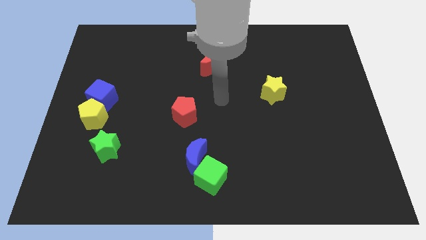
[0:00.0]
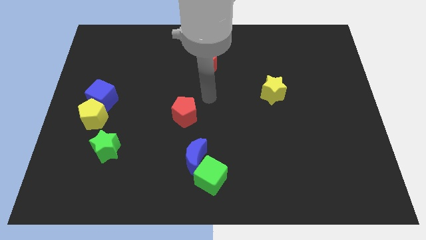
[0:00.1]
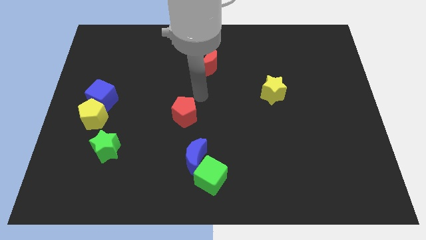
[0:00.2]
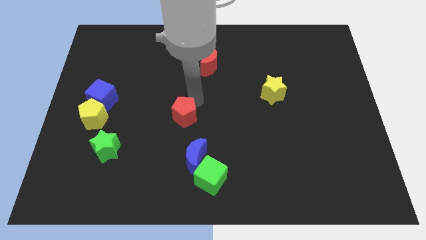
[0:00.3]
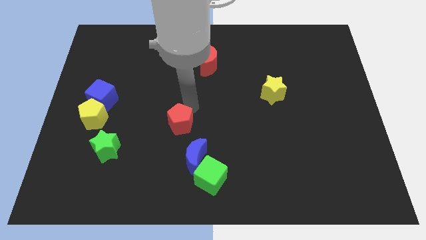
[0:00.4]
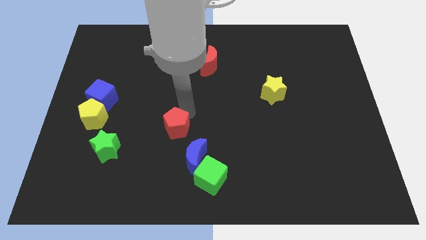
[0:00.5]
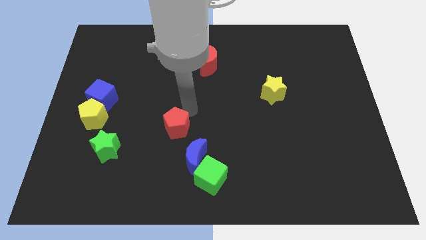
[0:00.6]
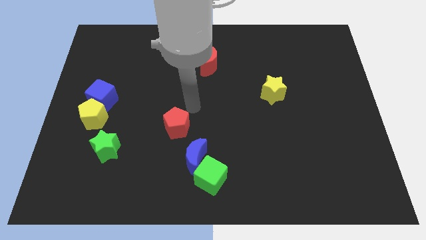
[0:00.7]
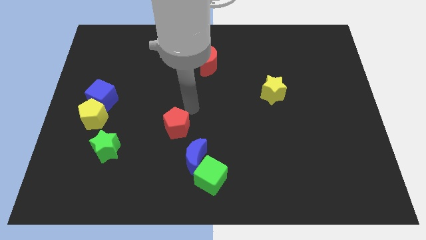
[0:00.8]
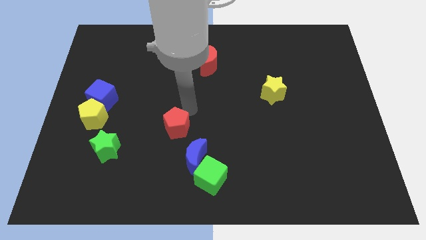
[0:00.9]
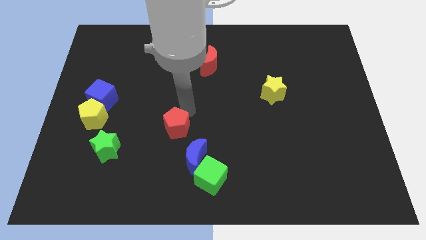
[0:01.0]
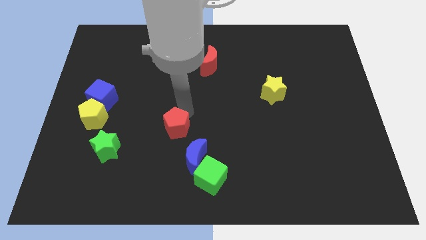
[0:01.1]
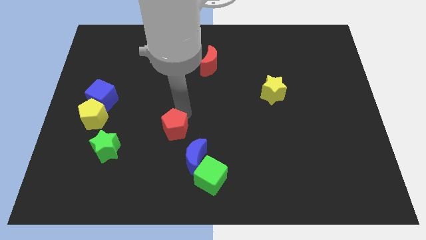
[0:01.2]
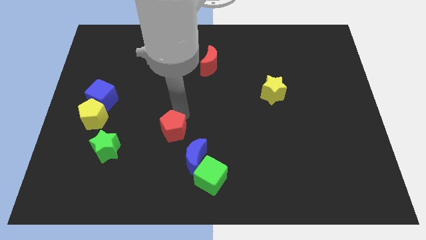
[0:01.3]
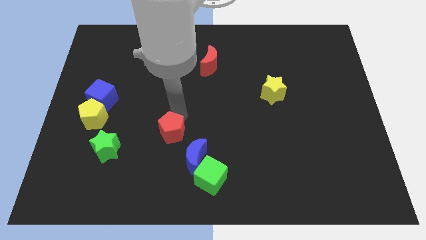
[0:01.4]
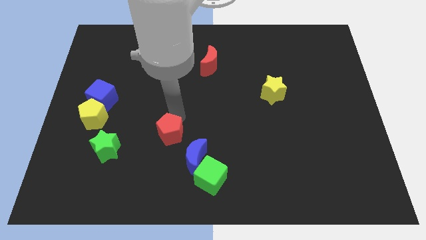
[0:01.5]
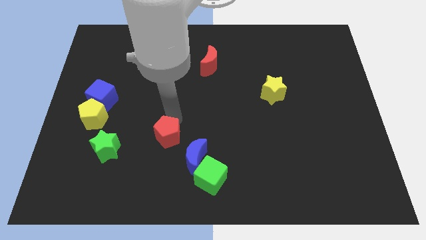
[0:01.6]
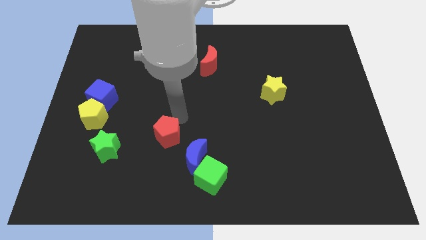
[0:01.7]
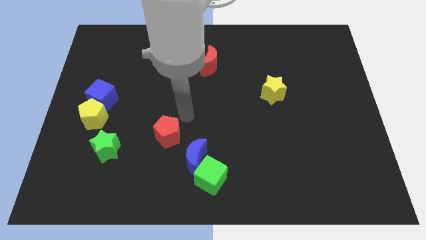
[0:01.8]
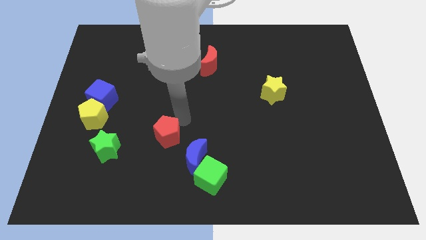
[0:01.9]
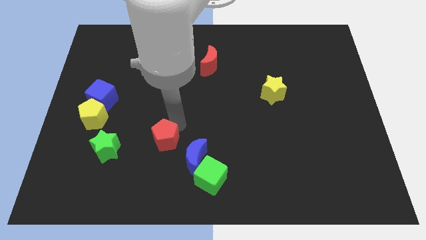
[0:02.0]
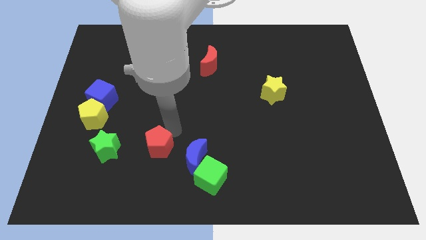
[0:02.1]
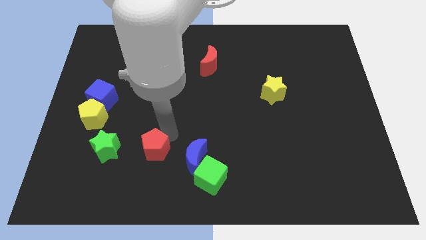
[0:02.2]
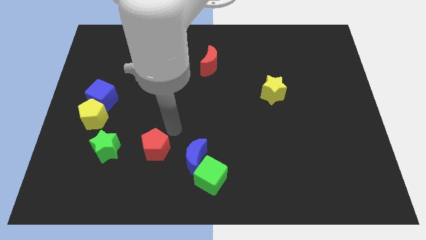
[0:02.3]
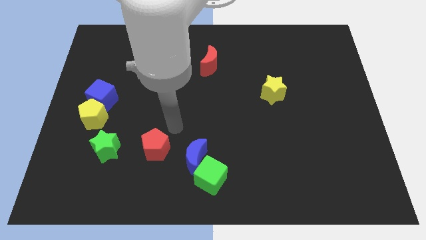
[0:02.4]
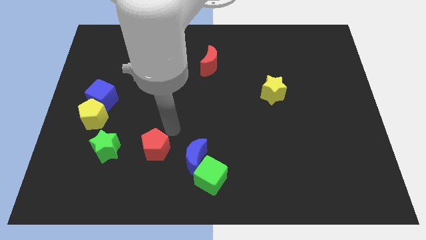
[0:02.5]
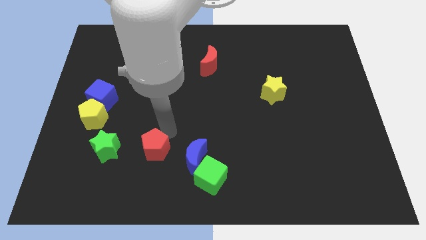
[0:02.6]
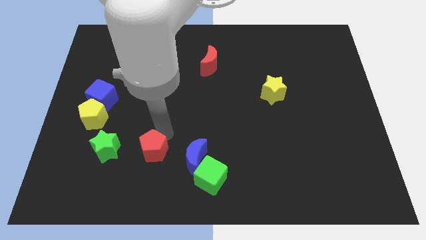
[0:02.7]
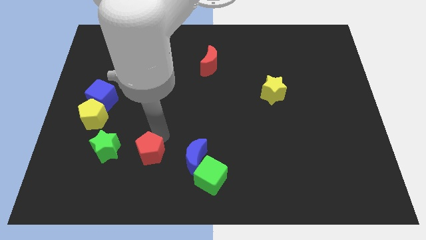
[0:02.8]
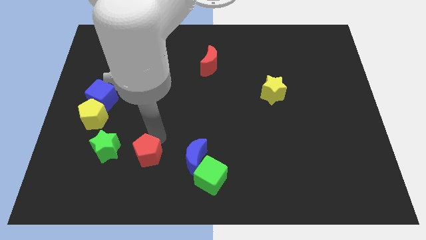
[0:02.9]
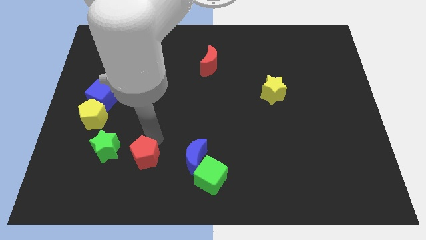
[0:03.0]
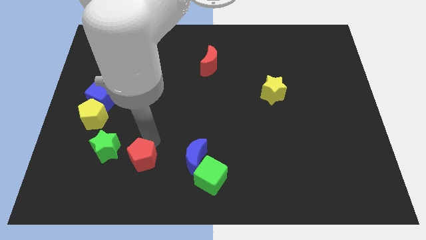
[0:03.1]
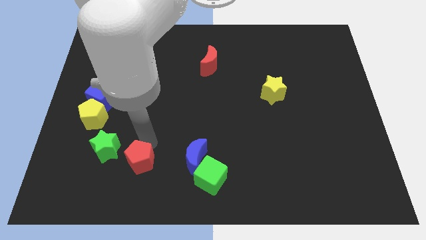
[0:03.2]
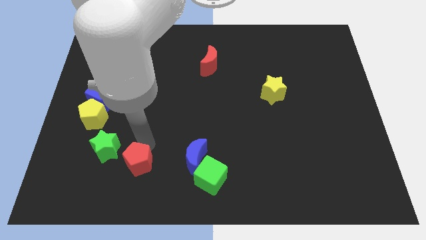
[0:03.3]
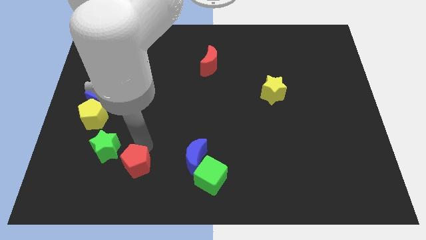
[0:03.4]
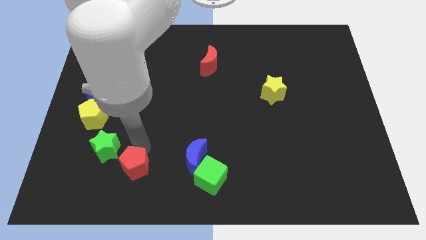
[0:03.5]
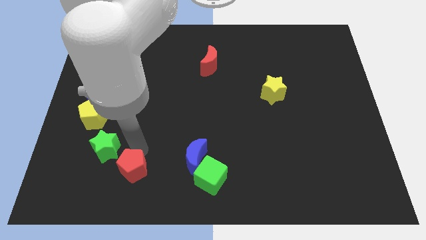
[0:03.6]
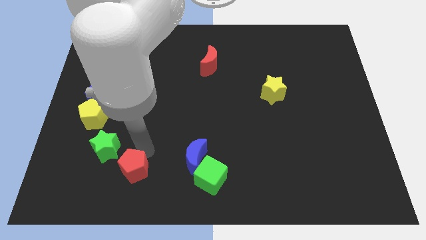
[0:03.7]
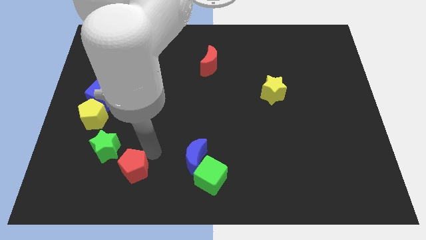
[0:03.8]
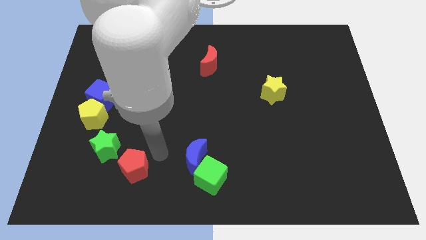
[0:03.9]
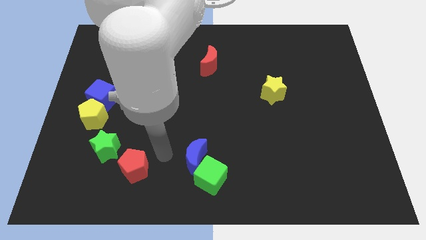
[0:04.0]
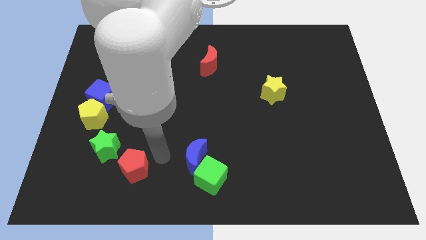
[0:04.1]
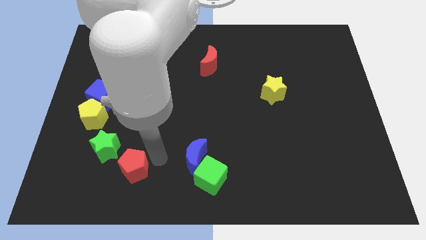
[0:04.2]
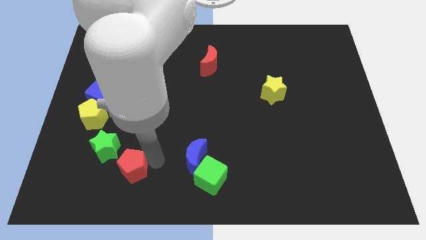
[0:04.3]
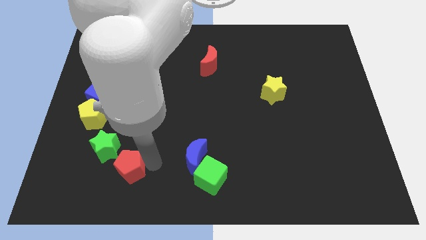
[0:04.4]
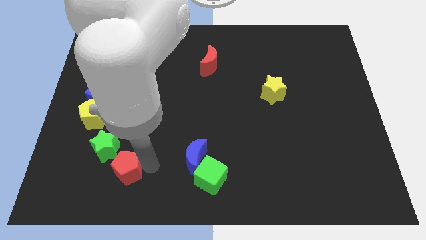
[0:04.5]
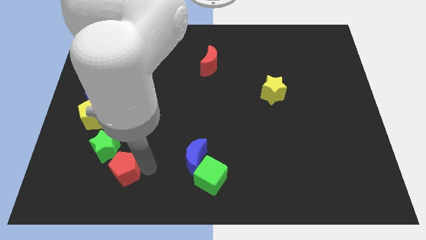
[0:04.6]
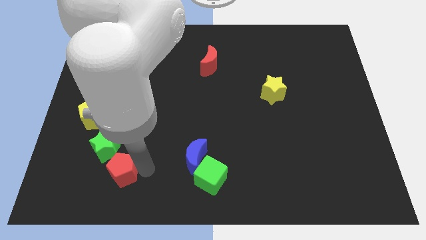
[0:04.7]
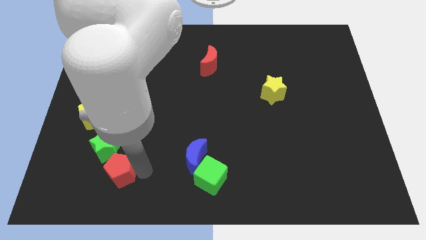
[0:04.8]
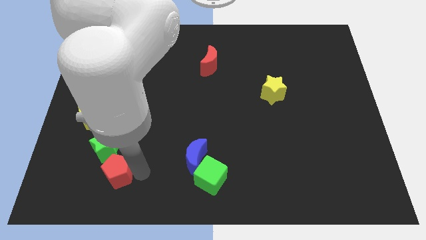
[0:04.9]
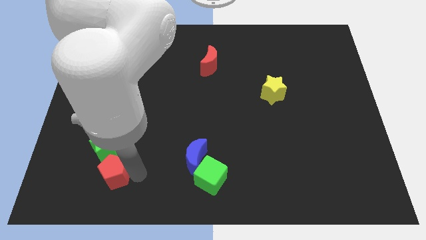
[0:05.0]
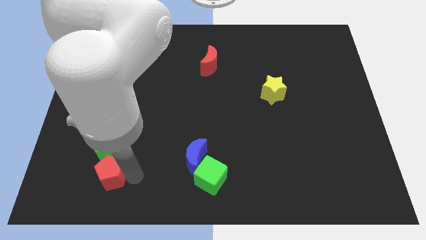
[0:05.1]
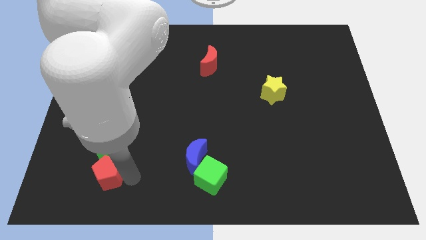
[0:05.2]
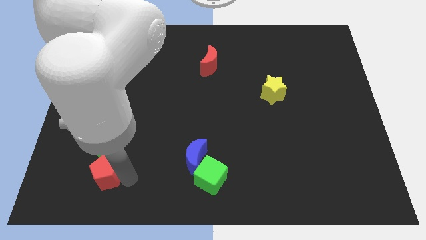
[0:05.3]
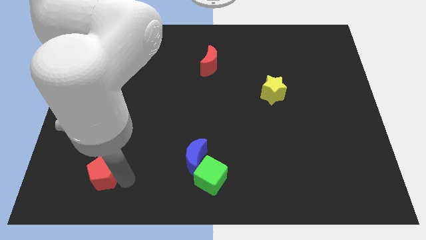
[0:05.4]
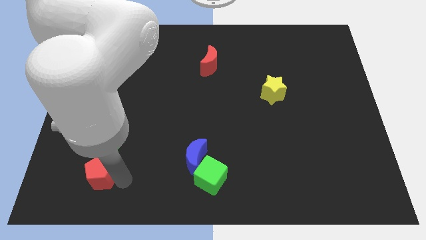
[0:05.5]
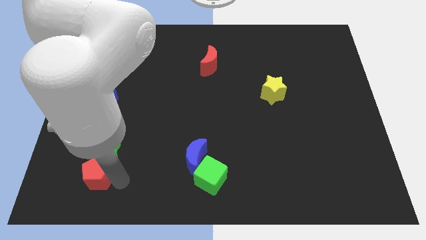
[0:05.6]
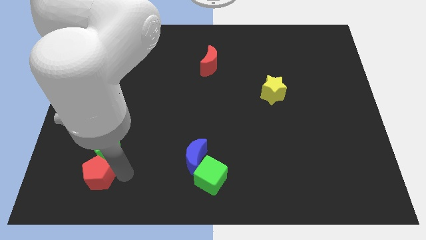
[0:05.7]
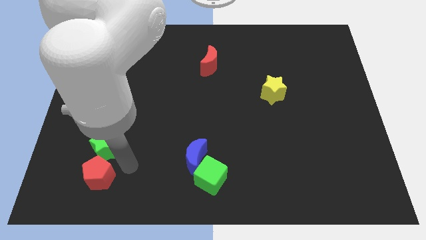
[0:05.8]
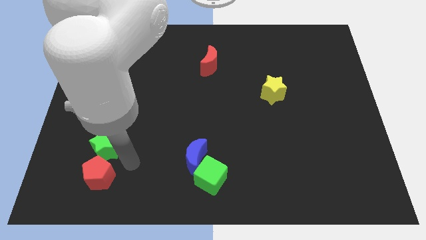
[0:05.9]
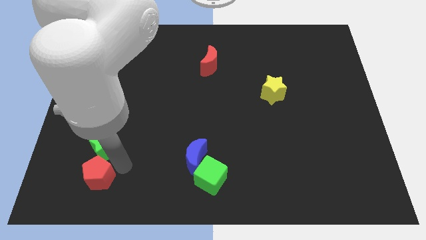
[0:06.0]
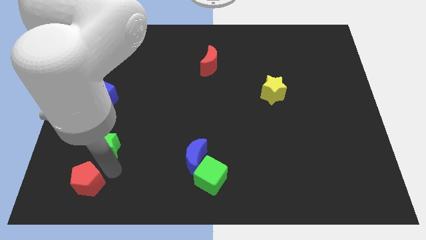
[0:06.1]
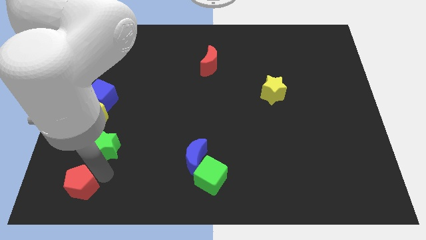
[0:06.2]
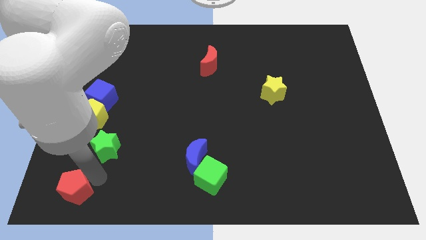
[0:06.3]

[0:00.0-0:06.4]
put the red pentagon to the bottom left
